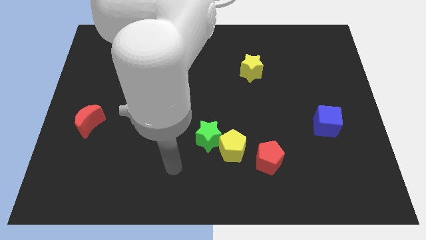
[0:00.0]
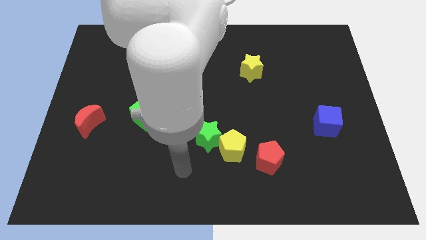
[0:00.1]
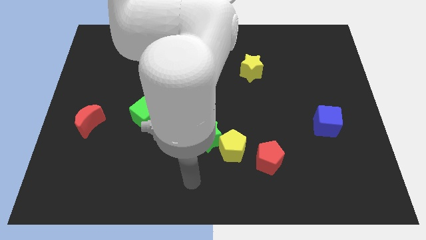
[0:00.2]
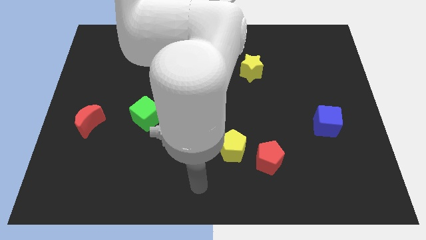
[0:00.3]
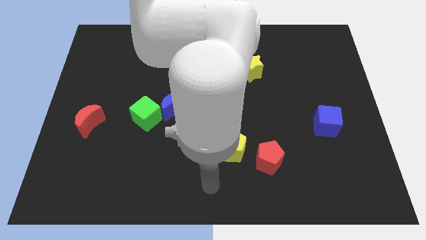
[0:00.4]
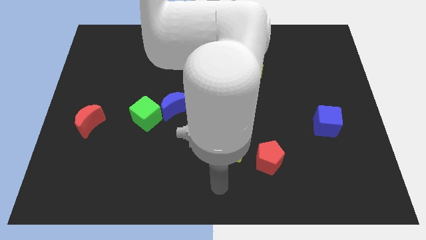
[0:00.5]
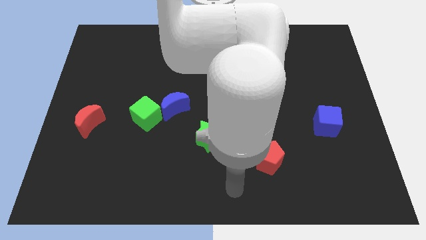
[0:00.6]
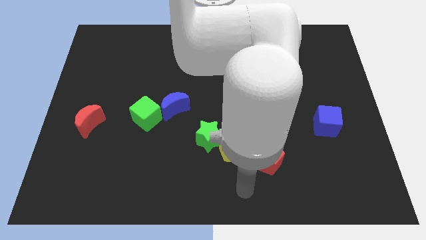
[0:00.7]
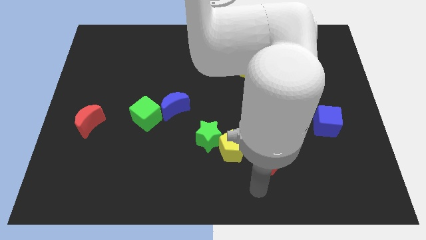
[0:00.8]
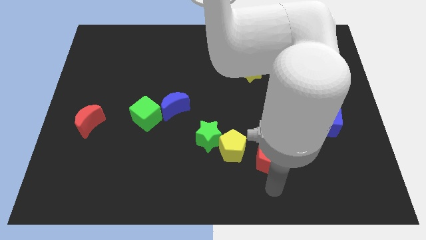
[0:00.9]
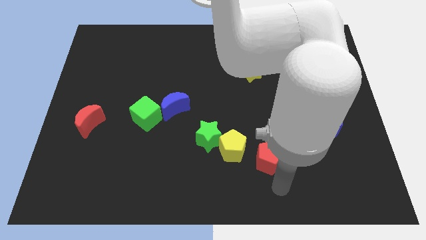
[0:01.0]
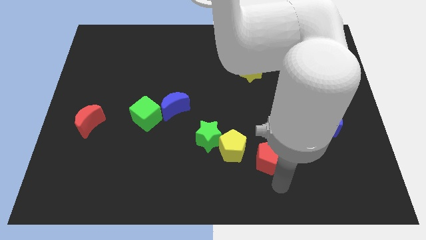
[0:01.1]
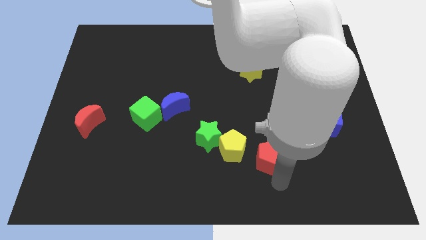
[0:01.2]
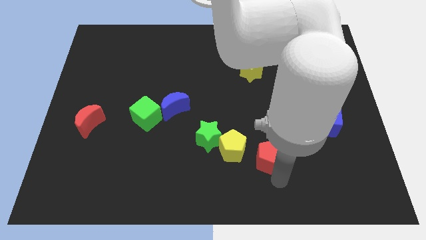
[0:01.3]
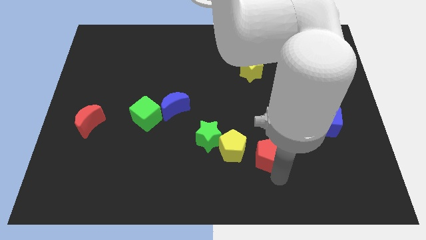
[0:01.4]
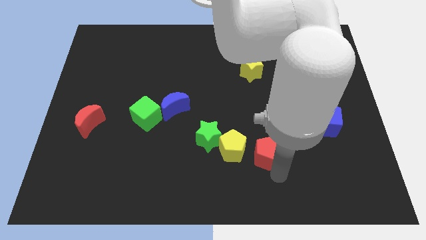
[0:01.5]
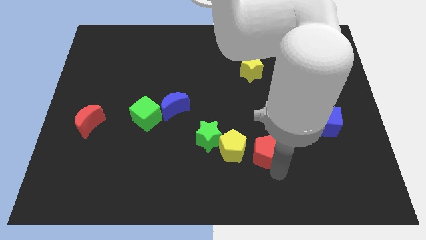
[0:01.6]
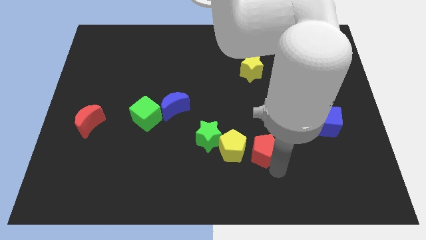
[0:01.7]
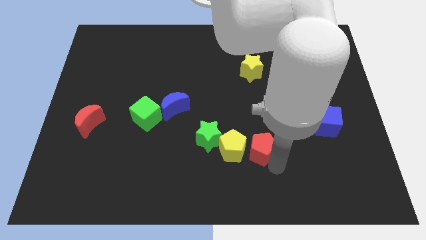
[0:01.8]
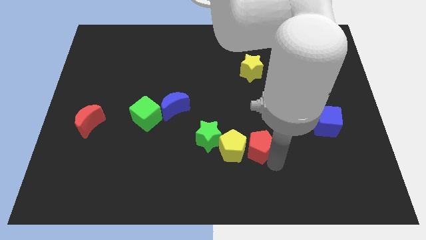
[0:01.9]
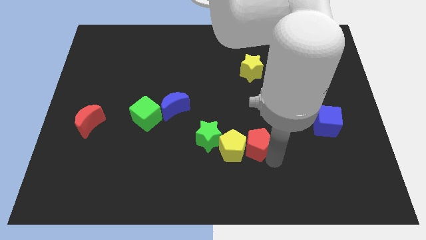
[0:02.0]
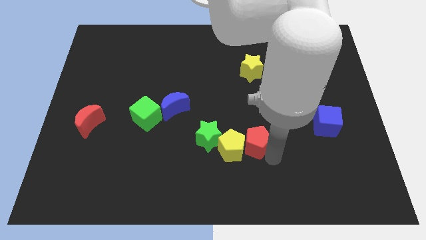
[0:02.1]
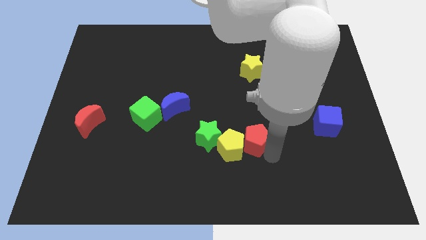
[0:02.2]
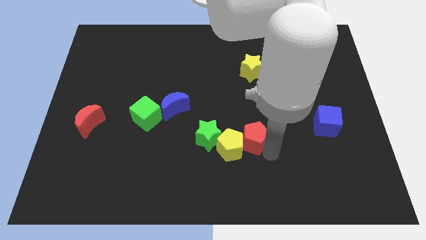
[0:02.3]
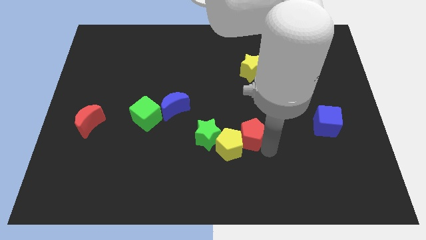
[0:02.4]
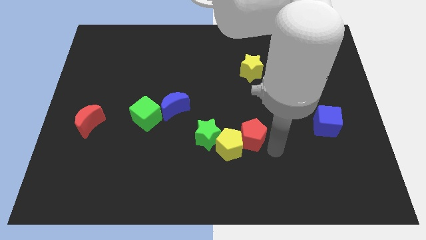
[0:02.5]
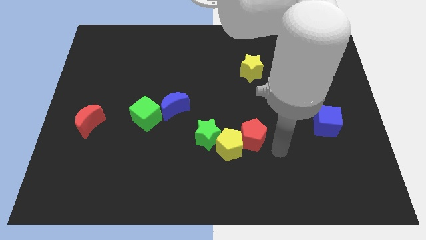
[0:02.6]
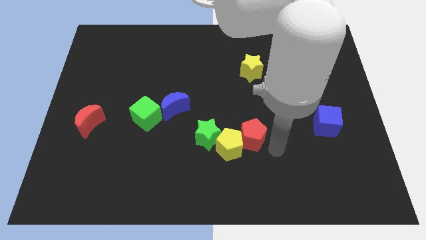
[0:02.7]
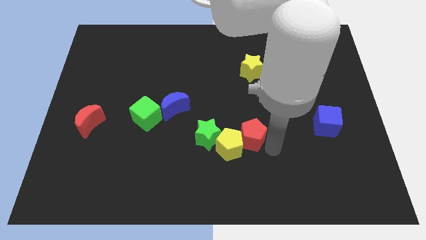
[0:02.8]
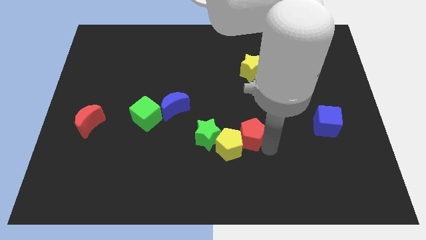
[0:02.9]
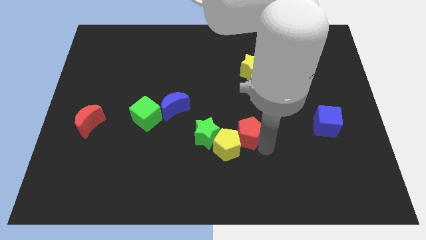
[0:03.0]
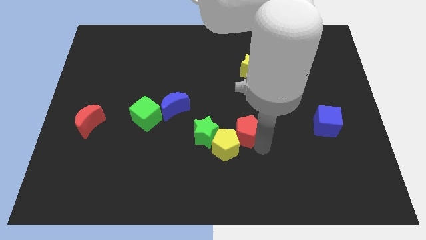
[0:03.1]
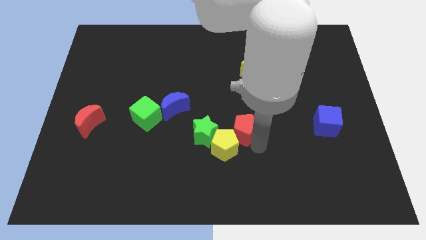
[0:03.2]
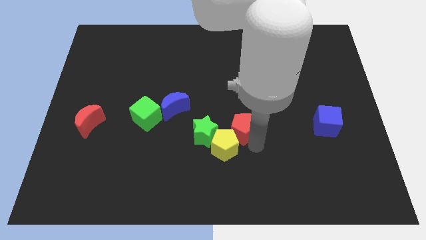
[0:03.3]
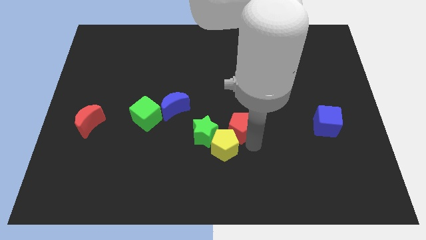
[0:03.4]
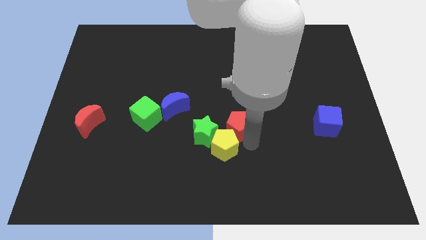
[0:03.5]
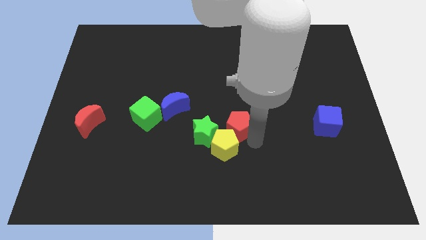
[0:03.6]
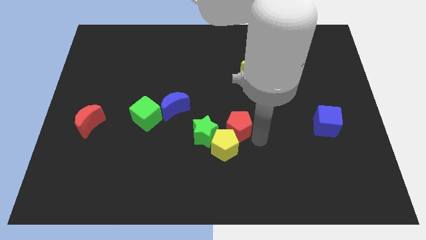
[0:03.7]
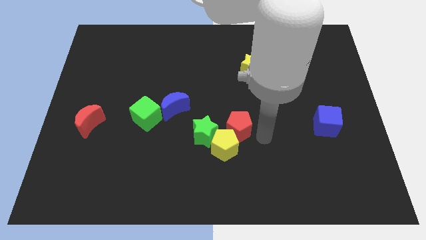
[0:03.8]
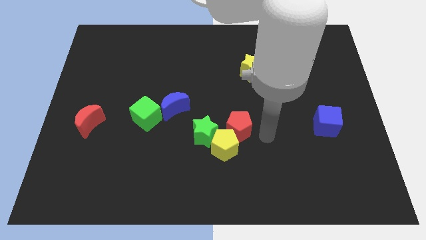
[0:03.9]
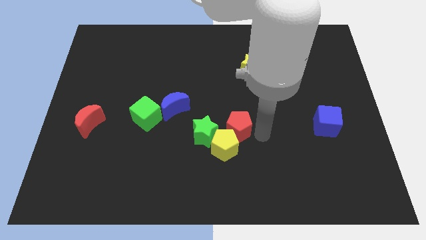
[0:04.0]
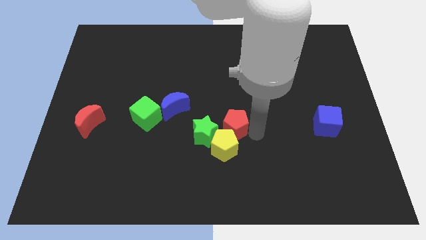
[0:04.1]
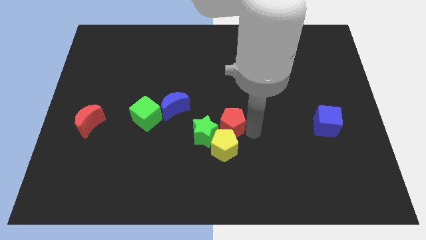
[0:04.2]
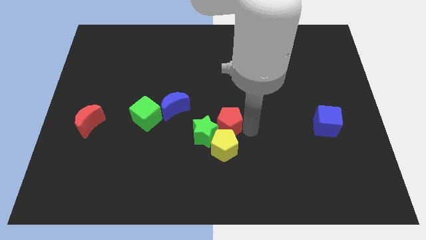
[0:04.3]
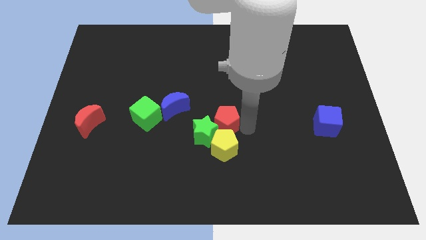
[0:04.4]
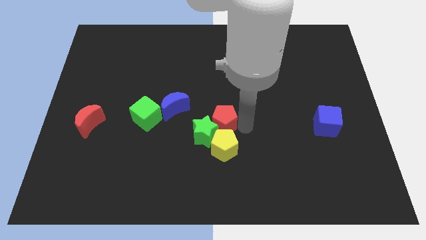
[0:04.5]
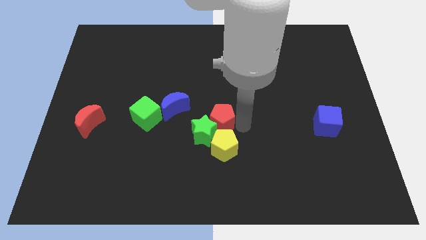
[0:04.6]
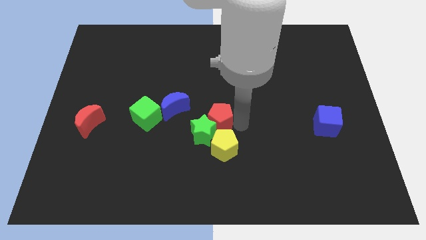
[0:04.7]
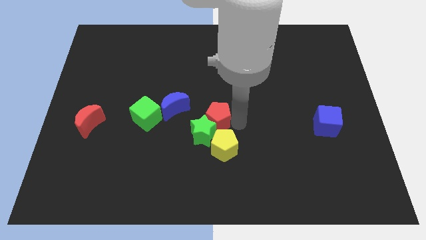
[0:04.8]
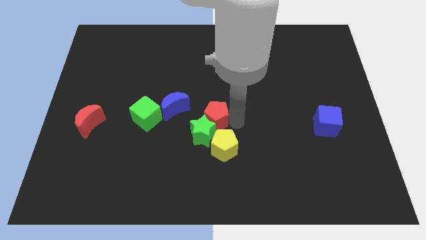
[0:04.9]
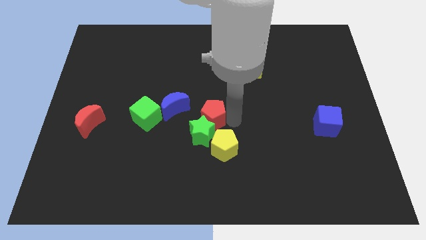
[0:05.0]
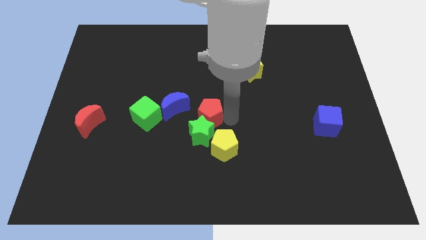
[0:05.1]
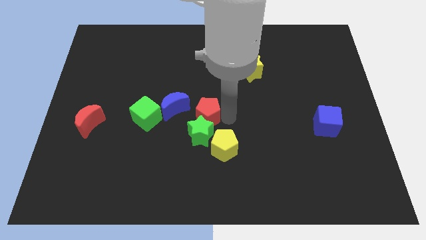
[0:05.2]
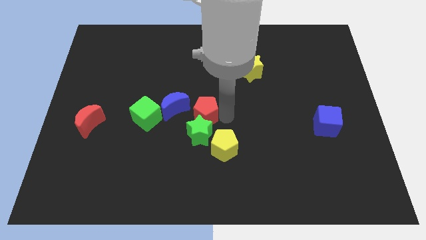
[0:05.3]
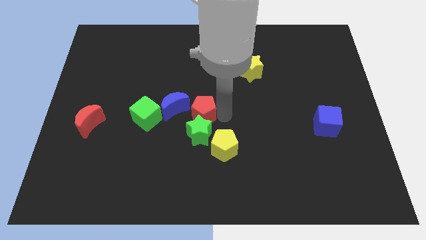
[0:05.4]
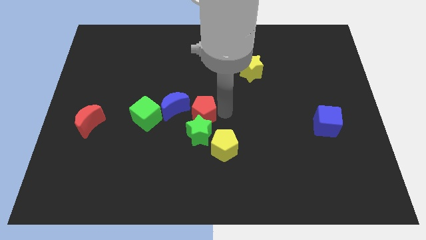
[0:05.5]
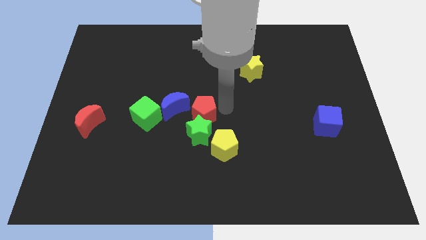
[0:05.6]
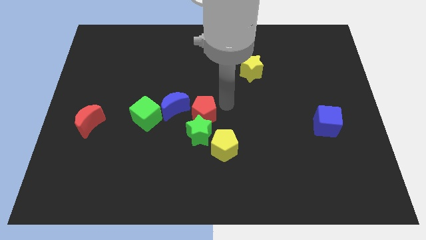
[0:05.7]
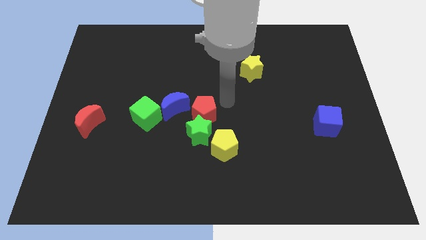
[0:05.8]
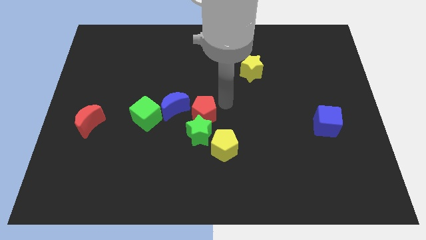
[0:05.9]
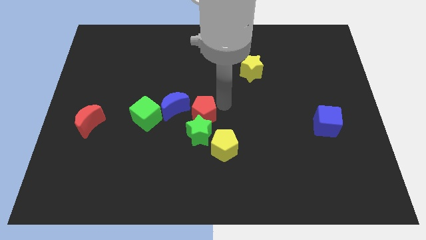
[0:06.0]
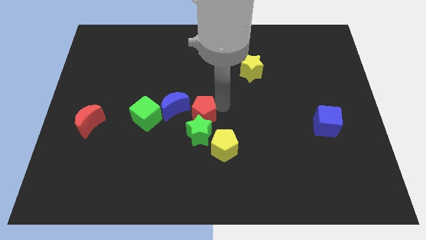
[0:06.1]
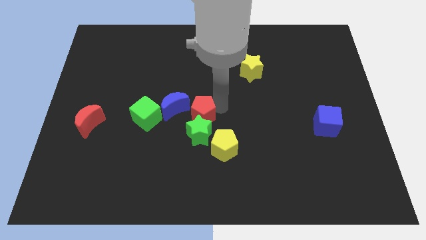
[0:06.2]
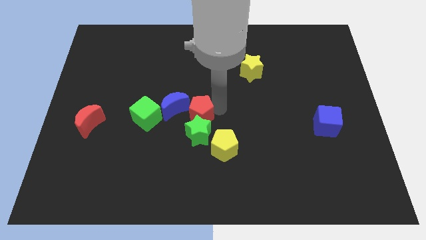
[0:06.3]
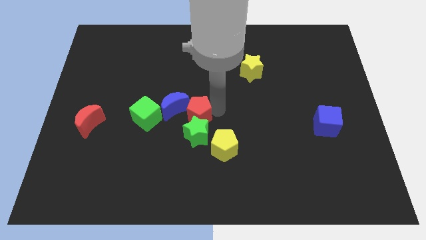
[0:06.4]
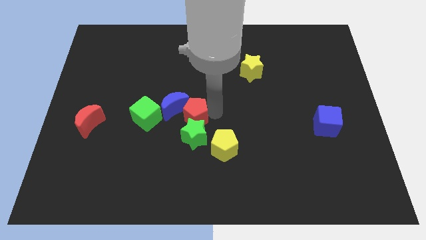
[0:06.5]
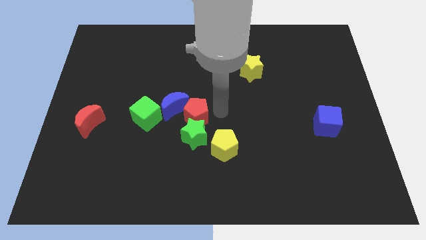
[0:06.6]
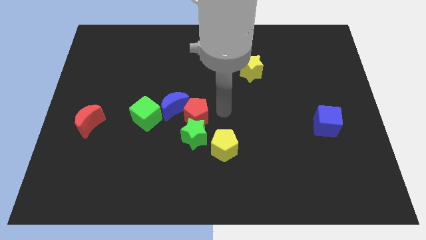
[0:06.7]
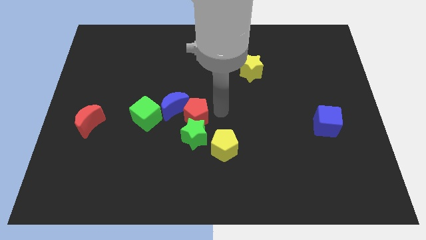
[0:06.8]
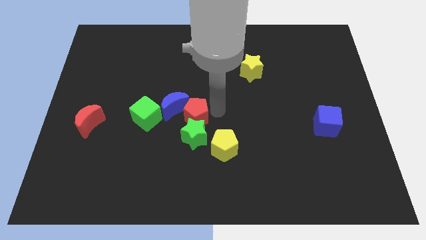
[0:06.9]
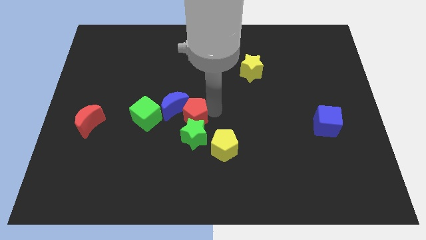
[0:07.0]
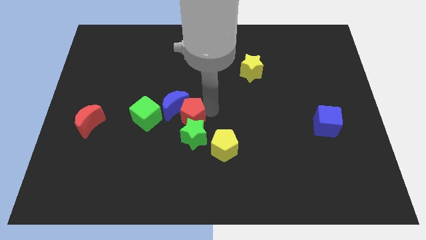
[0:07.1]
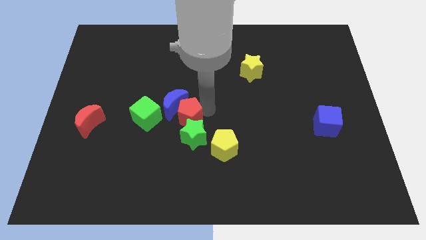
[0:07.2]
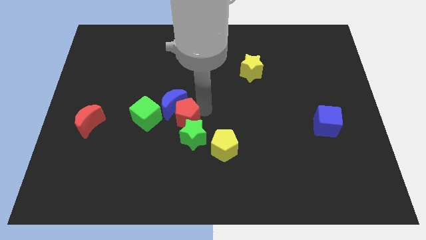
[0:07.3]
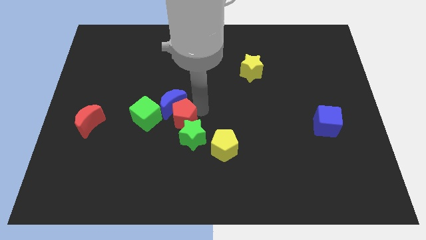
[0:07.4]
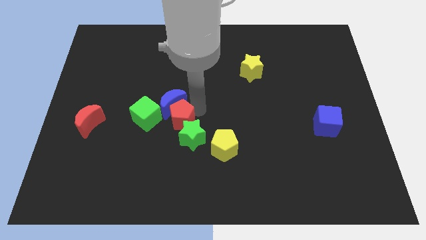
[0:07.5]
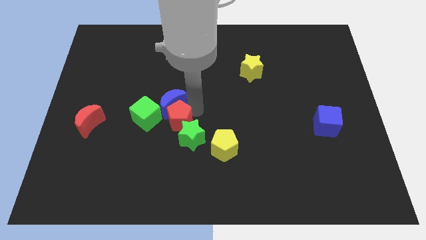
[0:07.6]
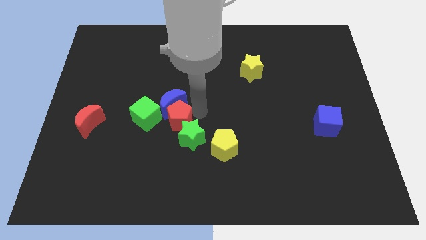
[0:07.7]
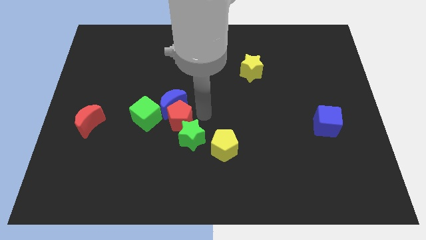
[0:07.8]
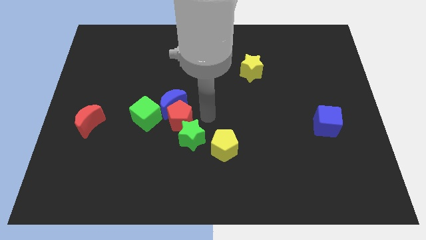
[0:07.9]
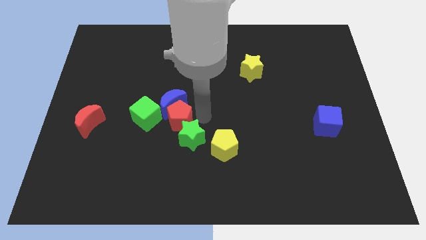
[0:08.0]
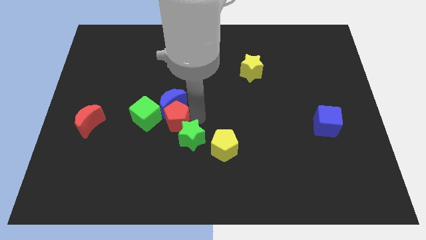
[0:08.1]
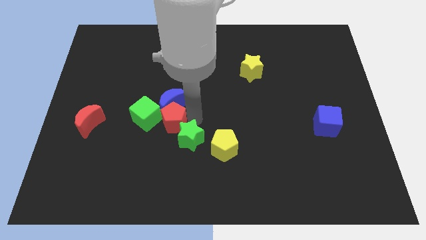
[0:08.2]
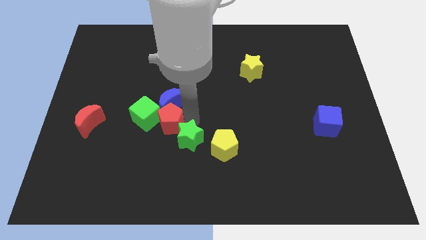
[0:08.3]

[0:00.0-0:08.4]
slide the red pentagon next to the green cube
